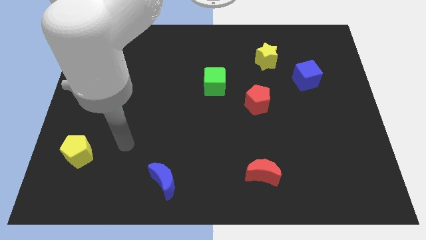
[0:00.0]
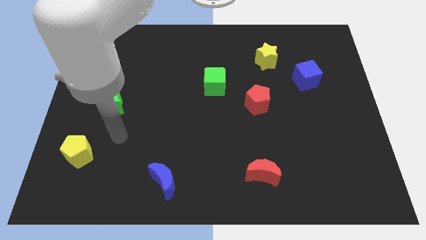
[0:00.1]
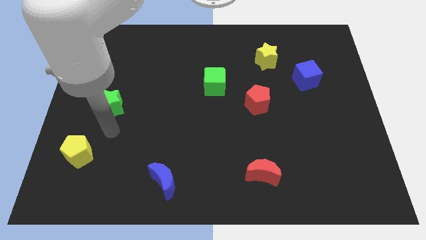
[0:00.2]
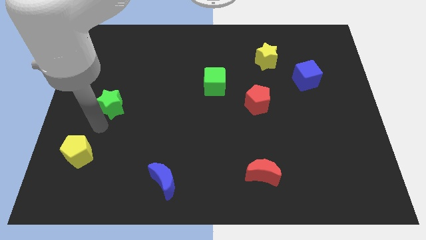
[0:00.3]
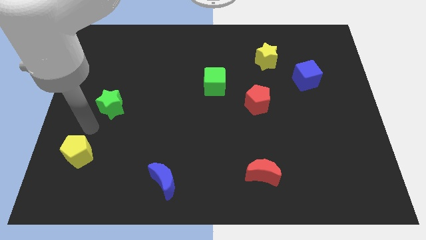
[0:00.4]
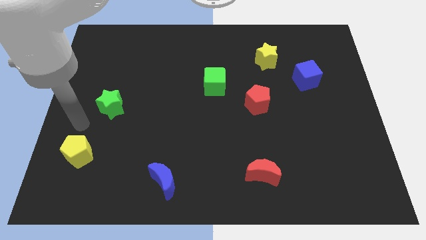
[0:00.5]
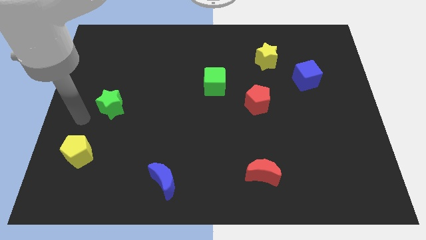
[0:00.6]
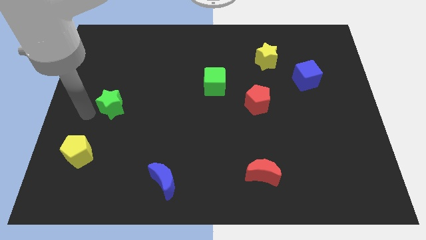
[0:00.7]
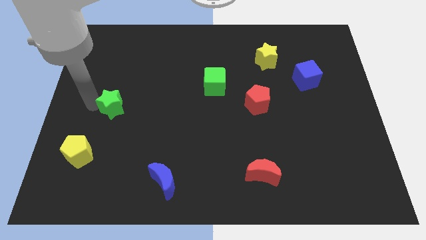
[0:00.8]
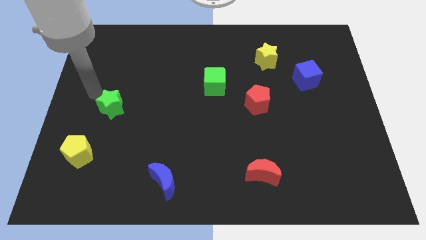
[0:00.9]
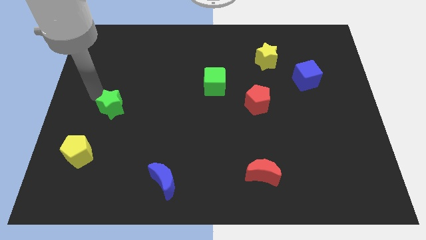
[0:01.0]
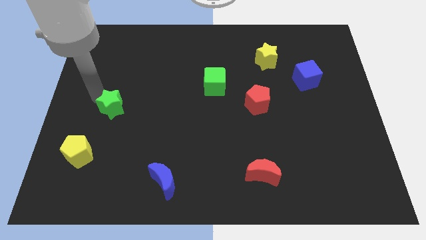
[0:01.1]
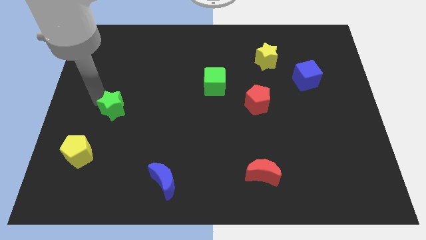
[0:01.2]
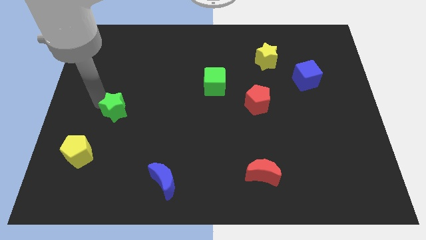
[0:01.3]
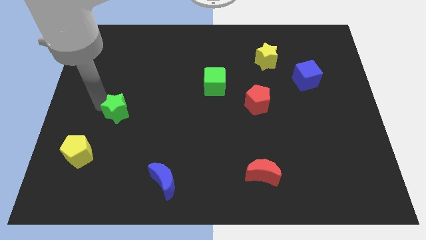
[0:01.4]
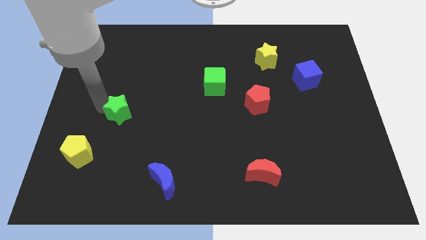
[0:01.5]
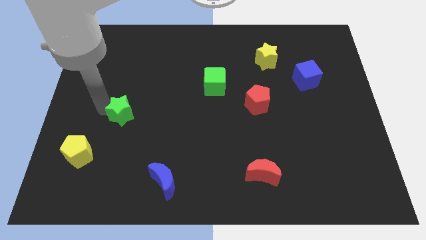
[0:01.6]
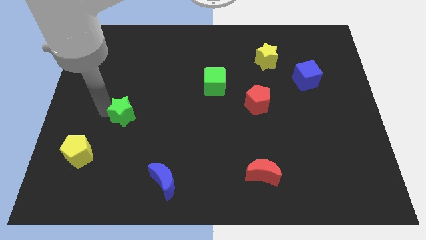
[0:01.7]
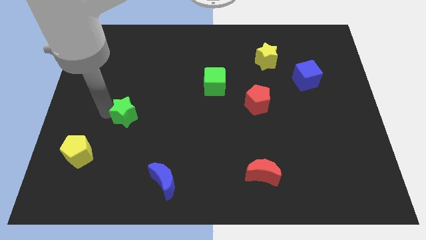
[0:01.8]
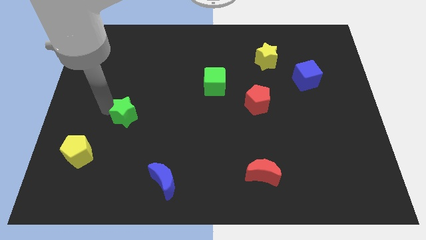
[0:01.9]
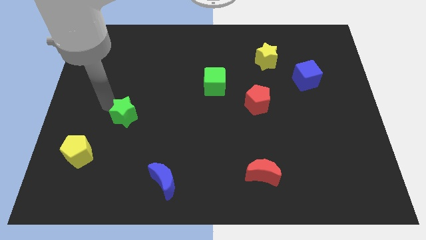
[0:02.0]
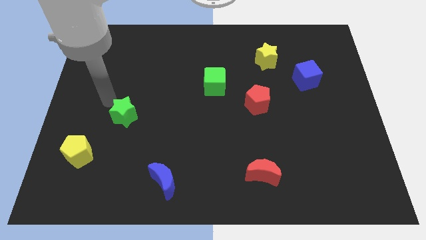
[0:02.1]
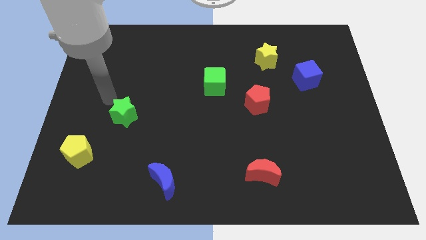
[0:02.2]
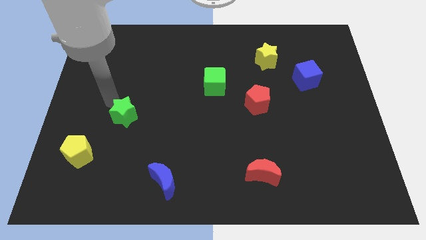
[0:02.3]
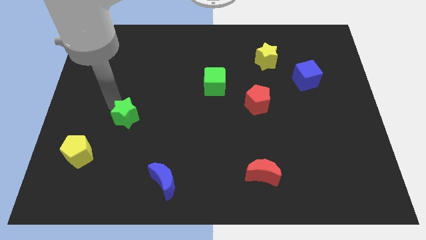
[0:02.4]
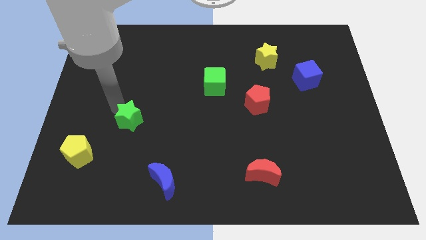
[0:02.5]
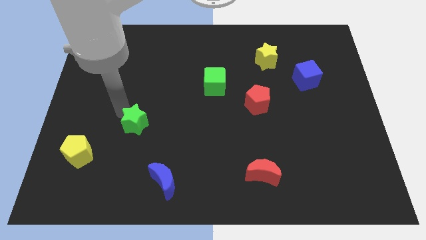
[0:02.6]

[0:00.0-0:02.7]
move the green star diagonally down and right somewhat

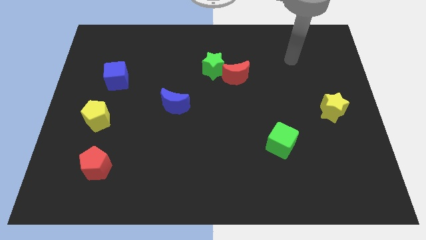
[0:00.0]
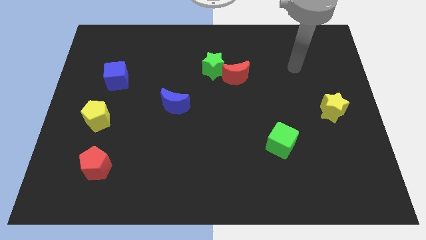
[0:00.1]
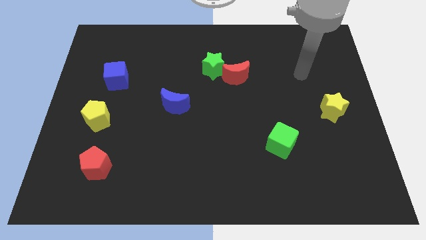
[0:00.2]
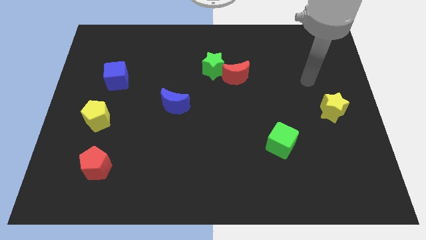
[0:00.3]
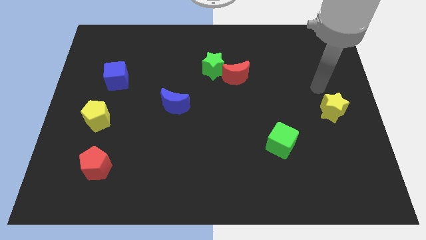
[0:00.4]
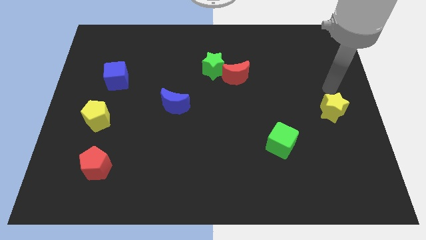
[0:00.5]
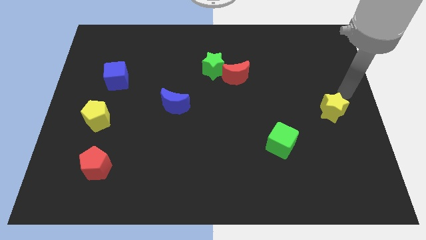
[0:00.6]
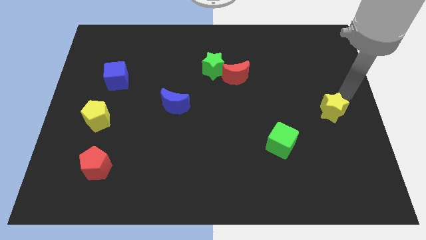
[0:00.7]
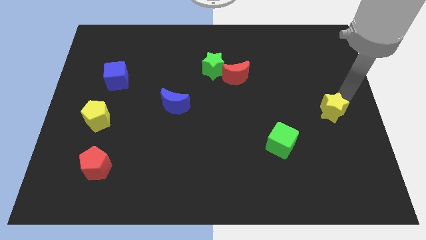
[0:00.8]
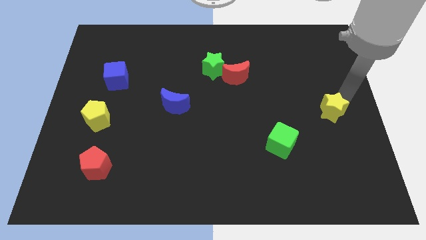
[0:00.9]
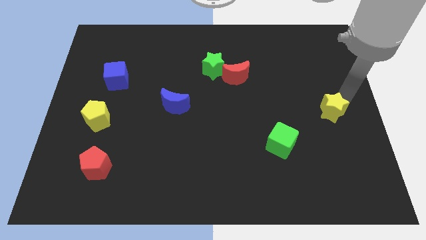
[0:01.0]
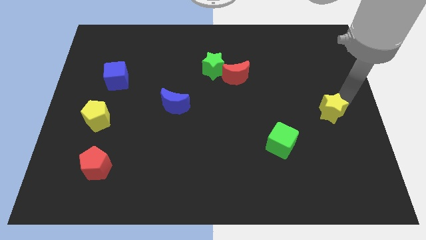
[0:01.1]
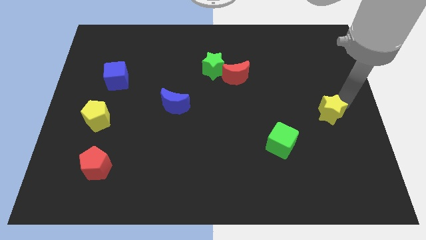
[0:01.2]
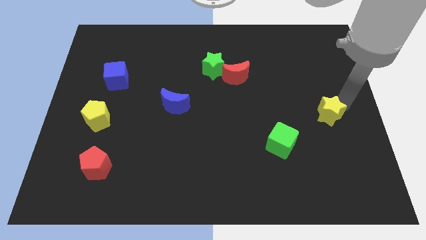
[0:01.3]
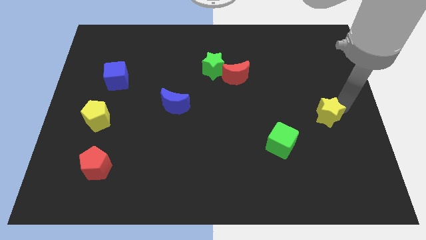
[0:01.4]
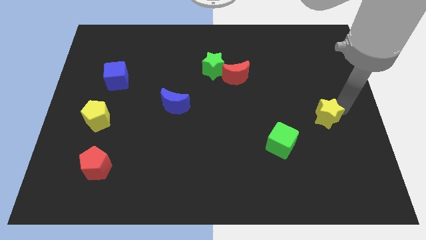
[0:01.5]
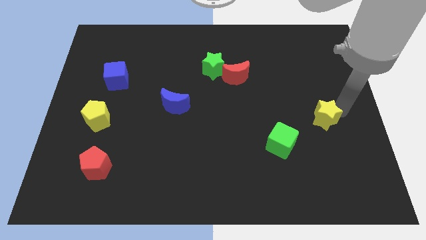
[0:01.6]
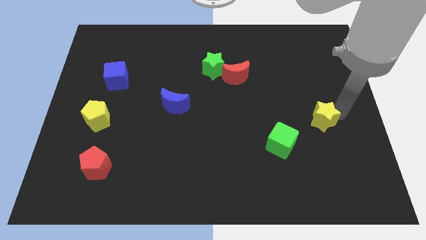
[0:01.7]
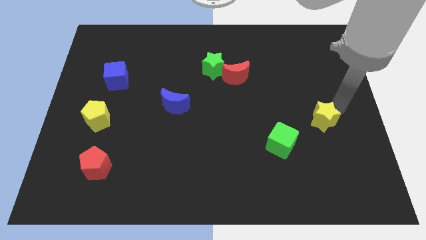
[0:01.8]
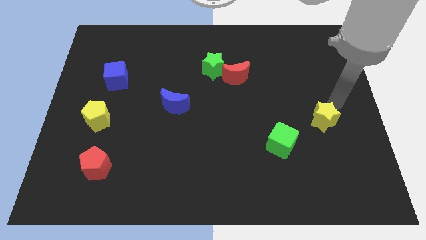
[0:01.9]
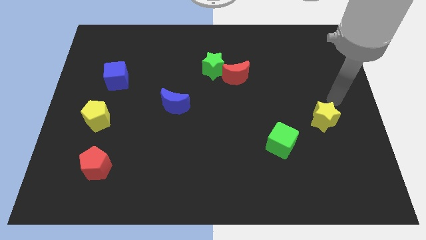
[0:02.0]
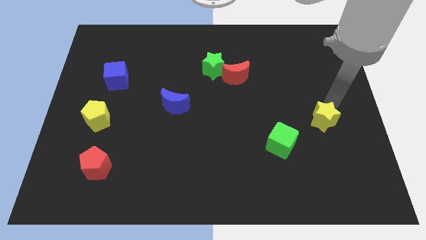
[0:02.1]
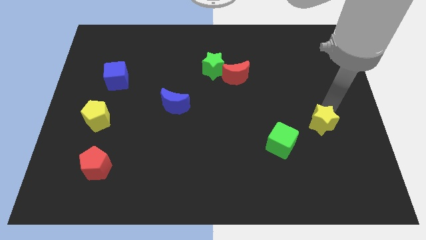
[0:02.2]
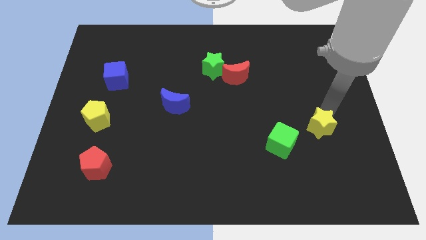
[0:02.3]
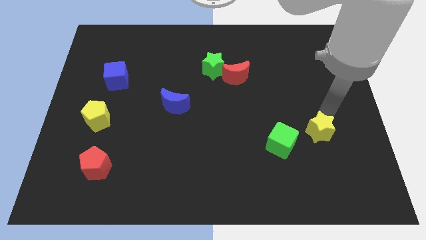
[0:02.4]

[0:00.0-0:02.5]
move the yellow star slightly down and left

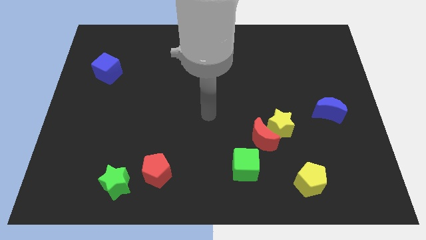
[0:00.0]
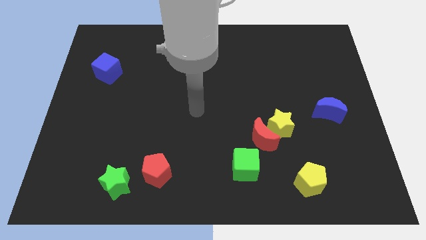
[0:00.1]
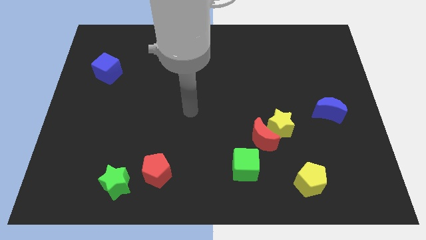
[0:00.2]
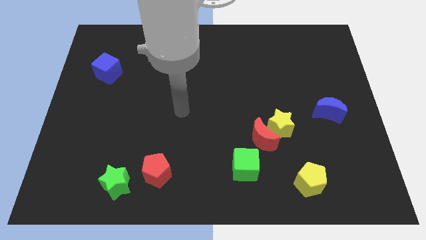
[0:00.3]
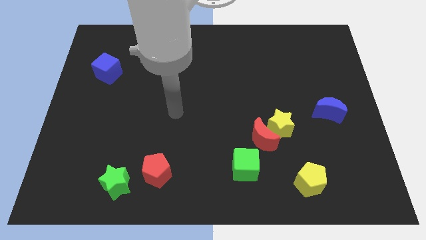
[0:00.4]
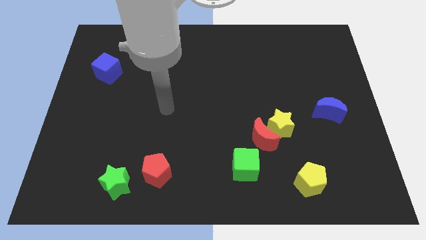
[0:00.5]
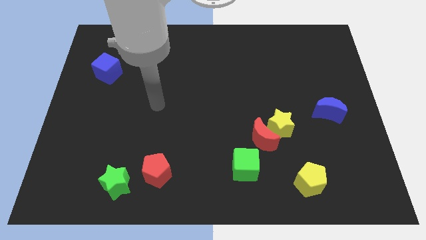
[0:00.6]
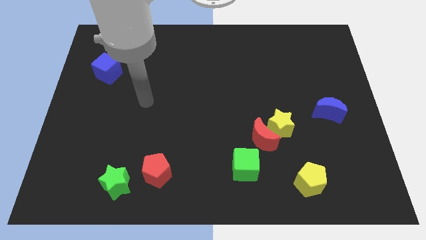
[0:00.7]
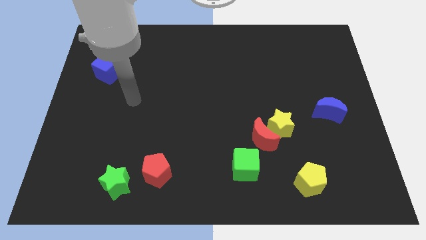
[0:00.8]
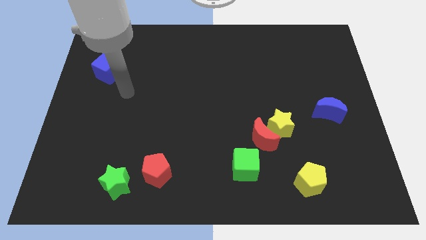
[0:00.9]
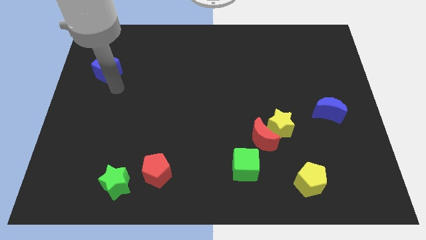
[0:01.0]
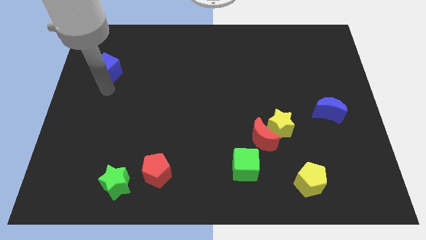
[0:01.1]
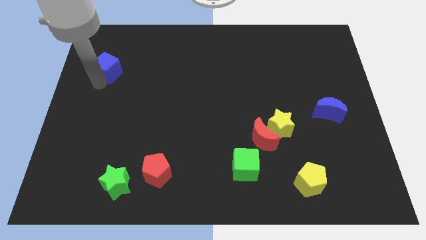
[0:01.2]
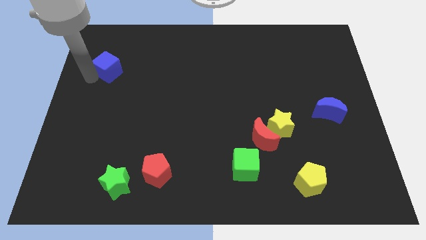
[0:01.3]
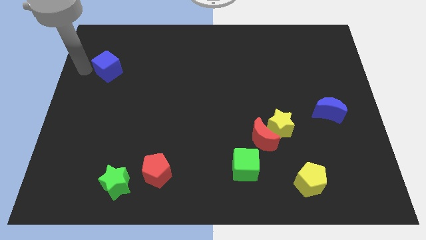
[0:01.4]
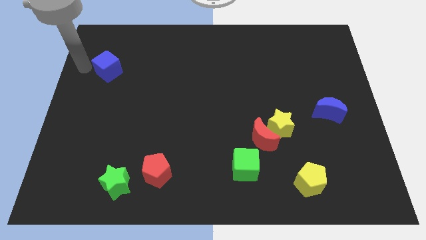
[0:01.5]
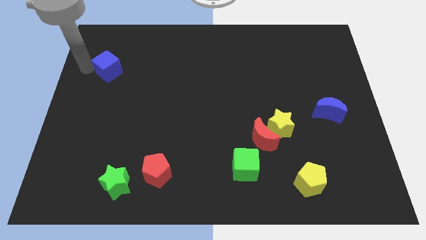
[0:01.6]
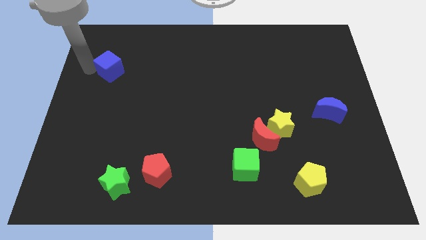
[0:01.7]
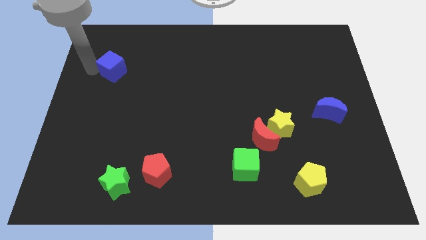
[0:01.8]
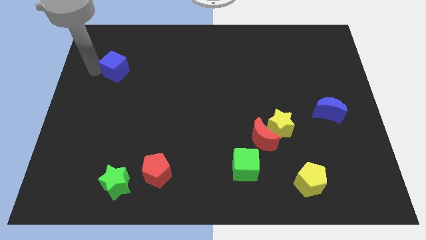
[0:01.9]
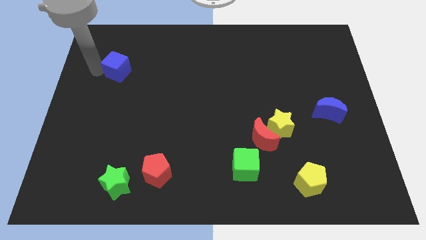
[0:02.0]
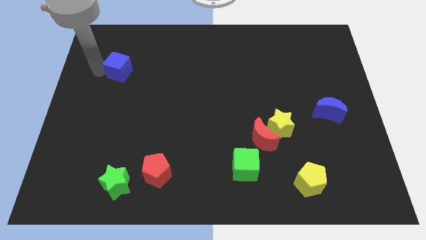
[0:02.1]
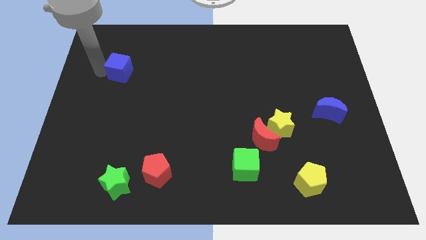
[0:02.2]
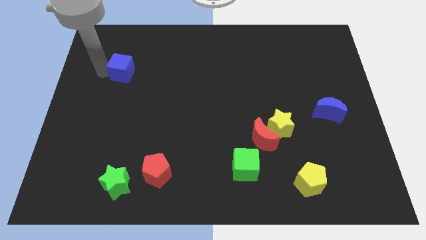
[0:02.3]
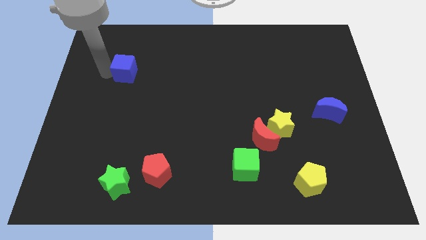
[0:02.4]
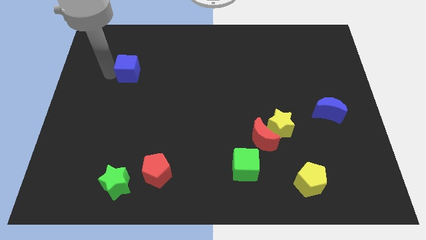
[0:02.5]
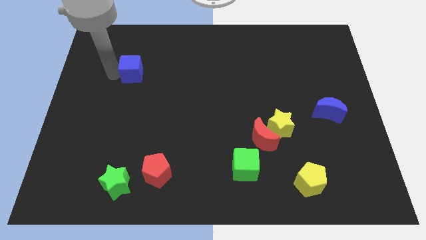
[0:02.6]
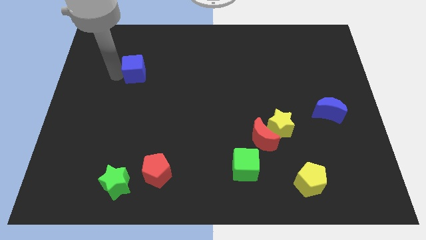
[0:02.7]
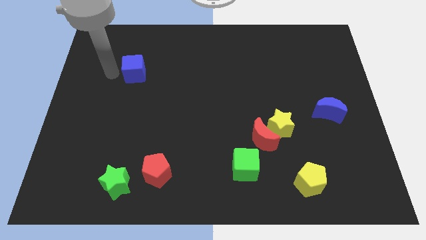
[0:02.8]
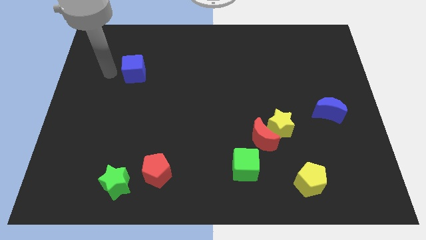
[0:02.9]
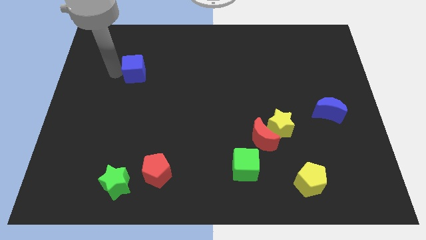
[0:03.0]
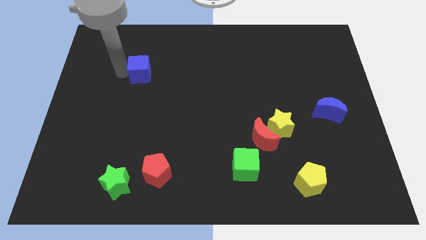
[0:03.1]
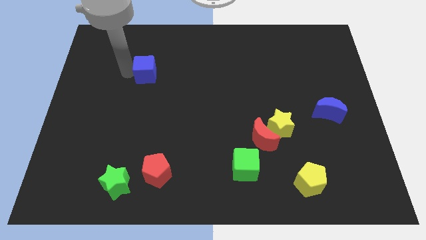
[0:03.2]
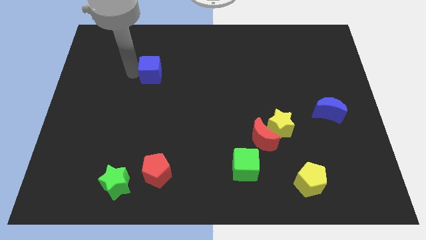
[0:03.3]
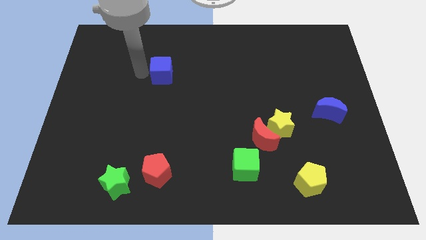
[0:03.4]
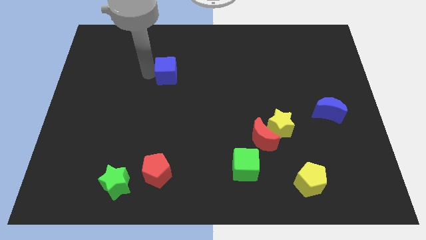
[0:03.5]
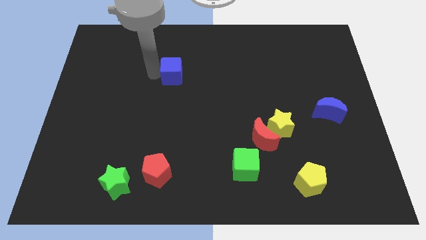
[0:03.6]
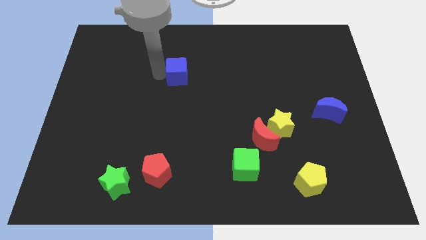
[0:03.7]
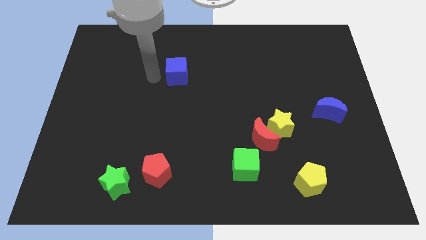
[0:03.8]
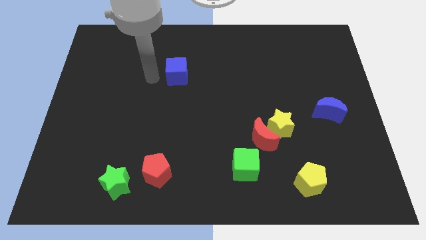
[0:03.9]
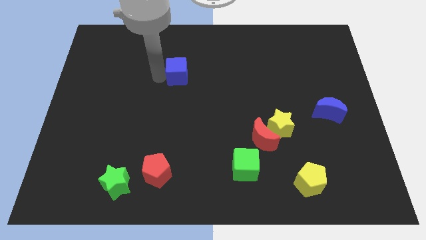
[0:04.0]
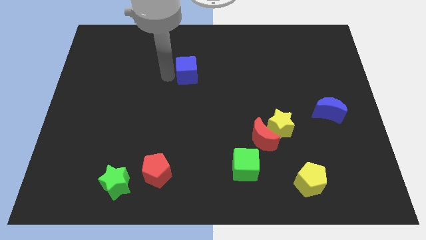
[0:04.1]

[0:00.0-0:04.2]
push the blue cube right
